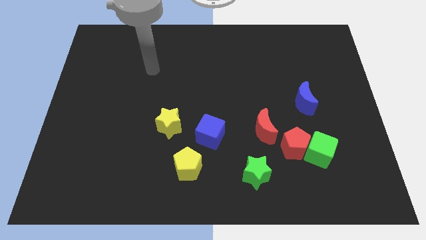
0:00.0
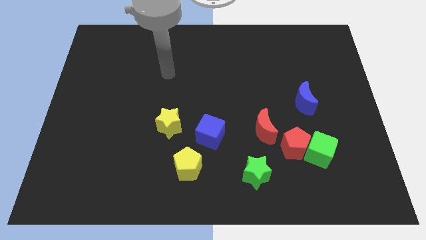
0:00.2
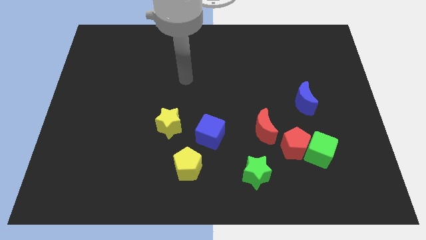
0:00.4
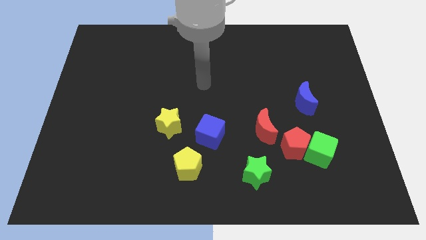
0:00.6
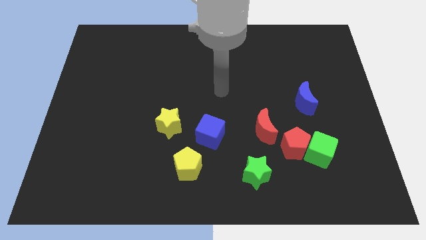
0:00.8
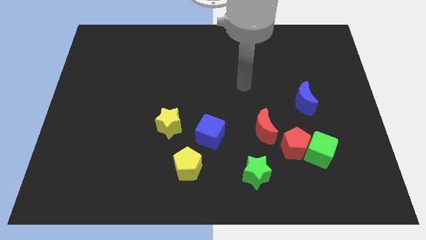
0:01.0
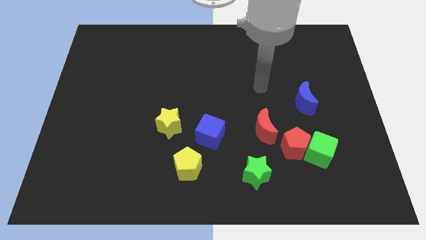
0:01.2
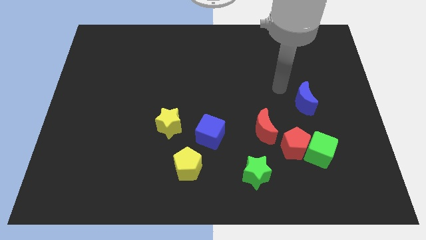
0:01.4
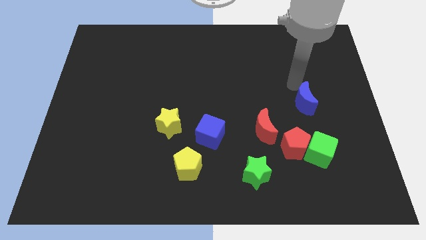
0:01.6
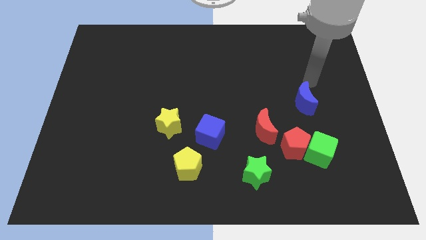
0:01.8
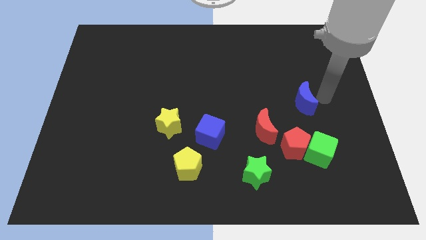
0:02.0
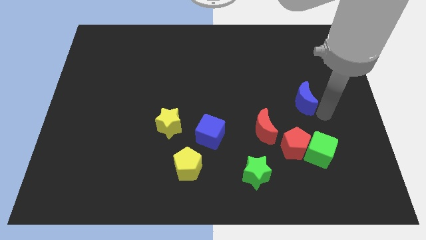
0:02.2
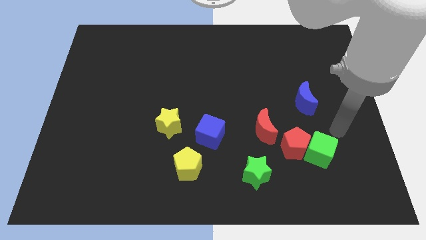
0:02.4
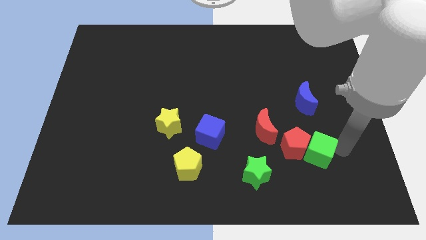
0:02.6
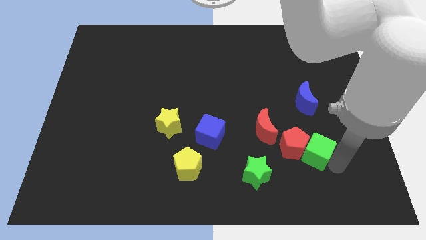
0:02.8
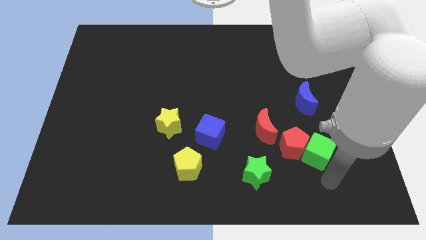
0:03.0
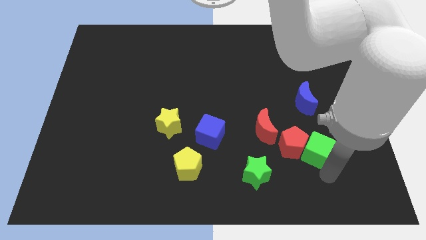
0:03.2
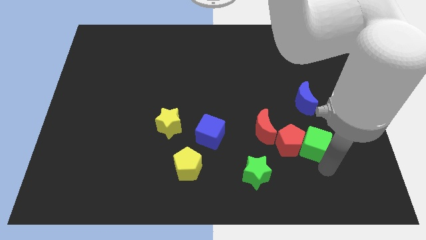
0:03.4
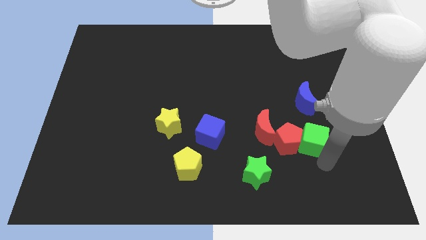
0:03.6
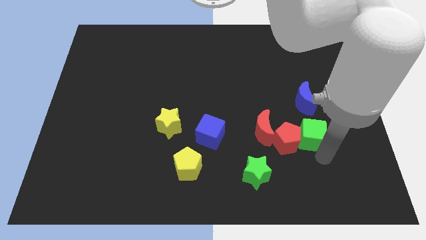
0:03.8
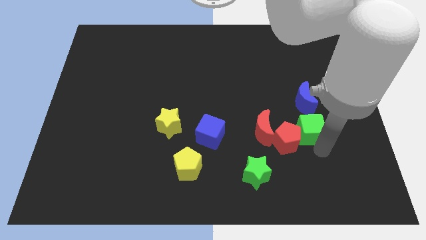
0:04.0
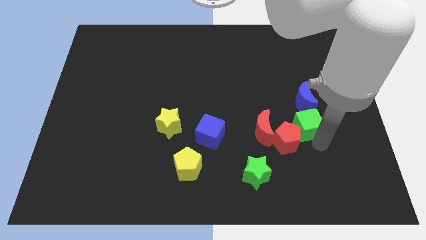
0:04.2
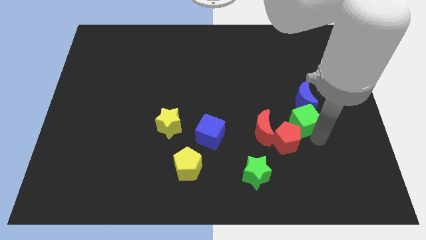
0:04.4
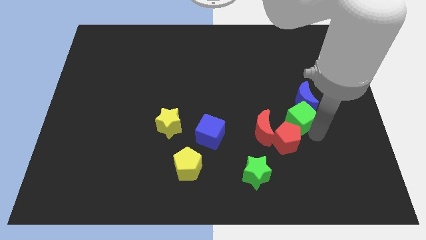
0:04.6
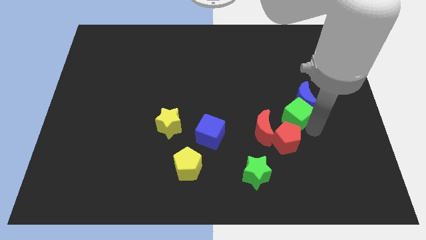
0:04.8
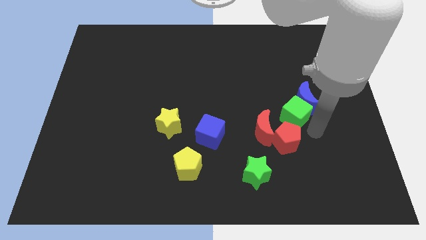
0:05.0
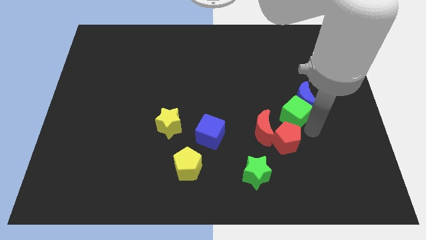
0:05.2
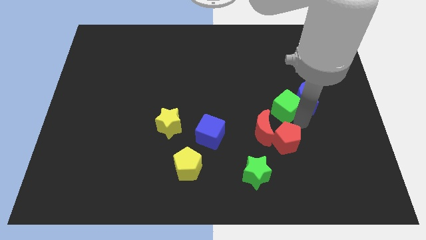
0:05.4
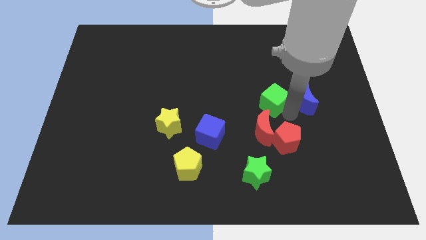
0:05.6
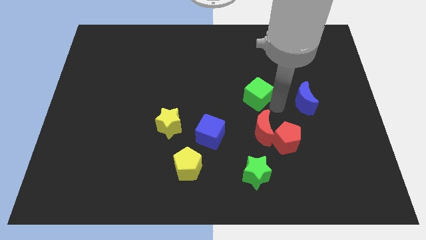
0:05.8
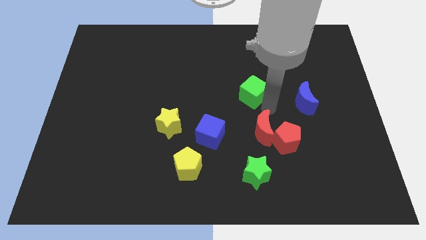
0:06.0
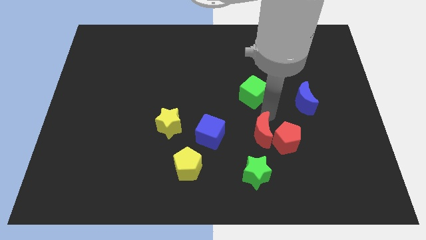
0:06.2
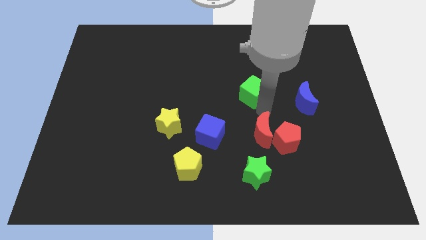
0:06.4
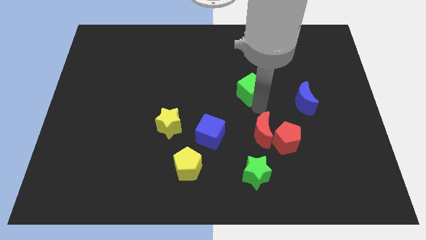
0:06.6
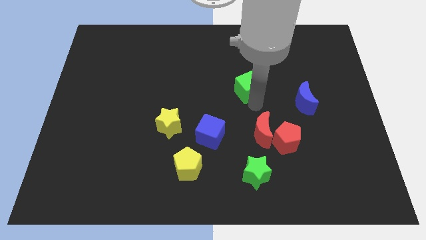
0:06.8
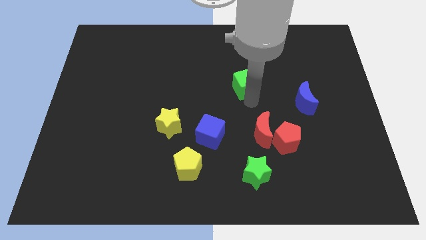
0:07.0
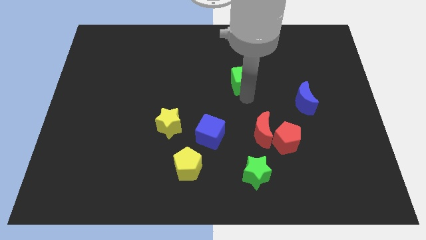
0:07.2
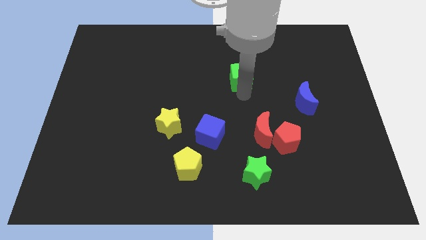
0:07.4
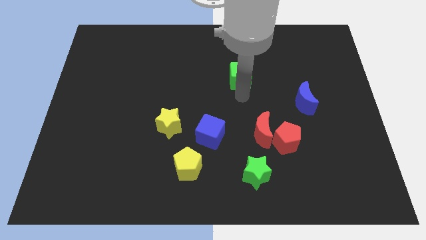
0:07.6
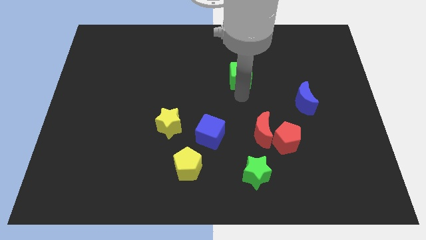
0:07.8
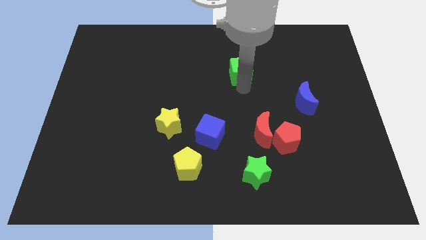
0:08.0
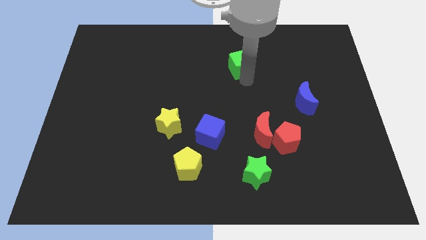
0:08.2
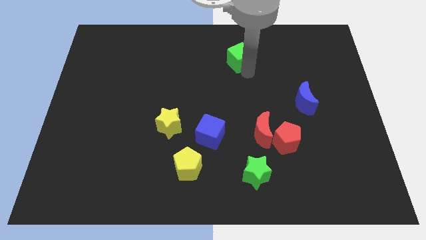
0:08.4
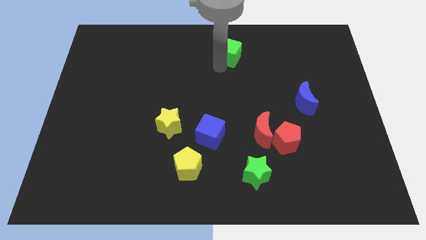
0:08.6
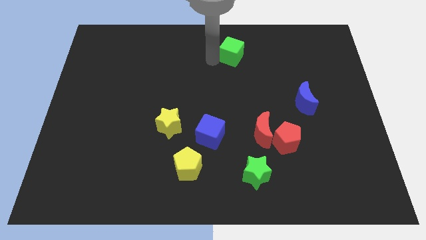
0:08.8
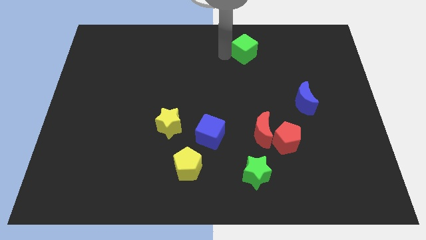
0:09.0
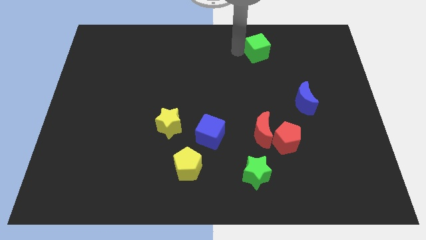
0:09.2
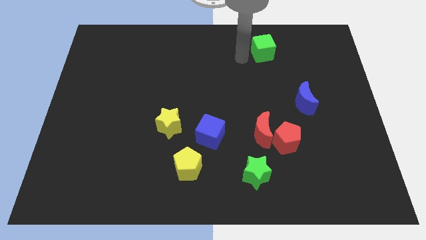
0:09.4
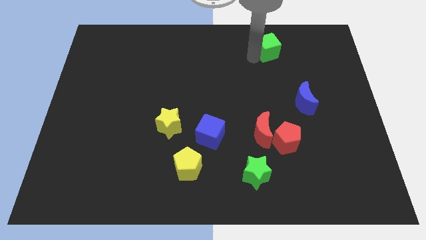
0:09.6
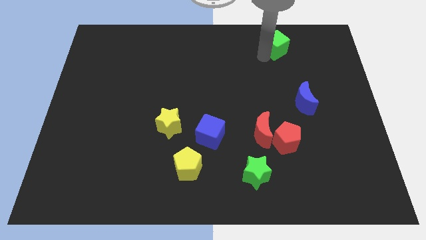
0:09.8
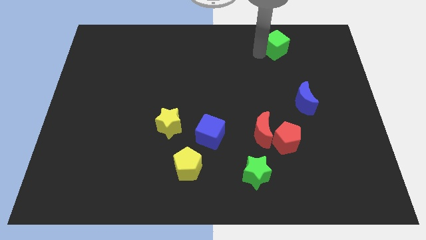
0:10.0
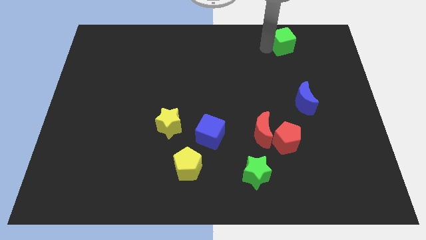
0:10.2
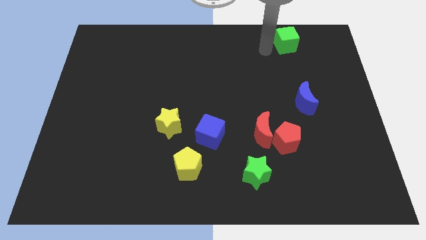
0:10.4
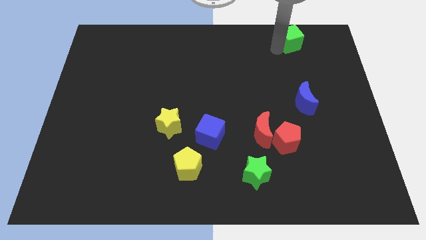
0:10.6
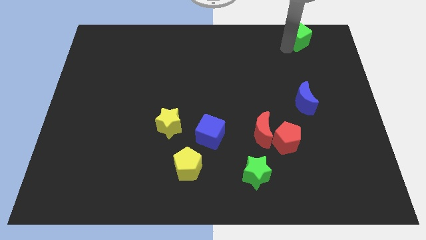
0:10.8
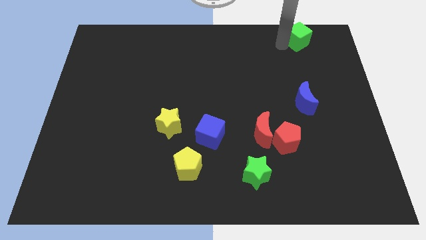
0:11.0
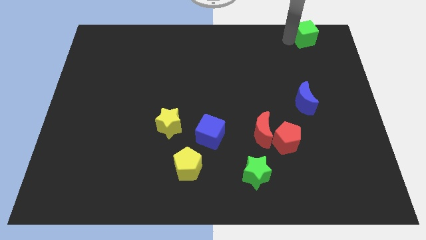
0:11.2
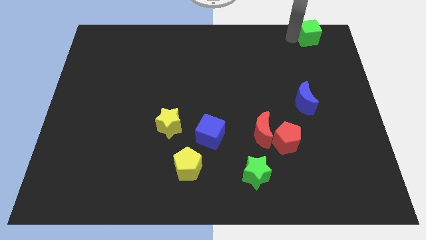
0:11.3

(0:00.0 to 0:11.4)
move the green cube to the top right corner
